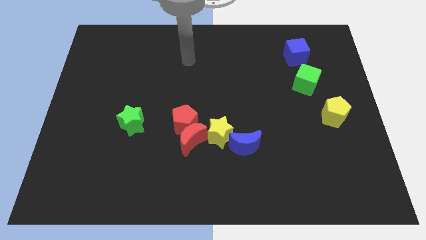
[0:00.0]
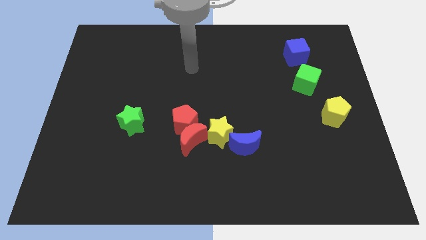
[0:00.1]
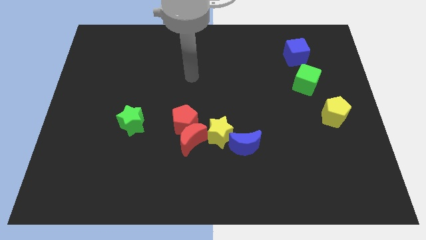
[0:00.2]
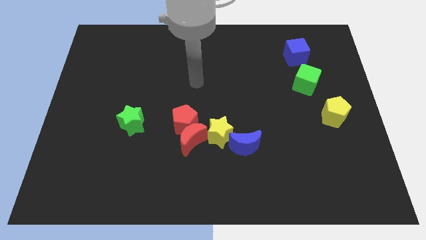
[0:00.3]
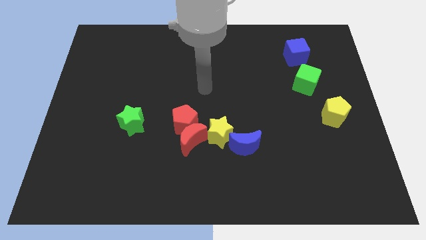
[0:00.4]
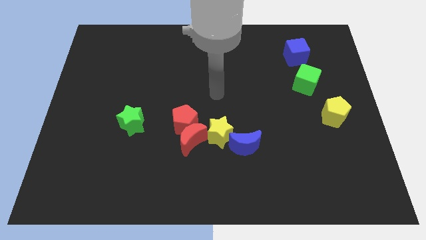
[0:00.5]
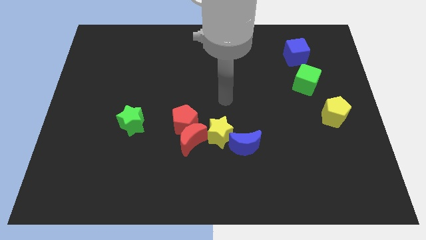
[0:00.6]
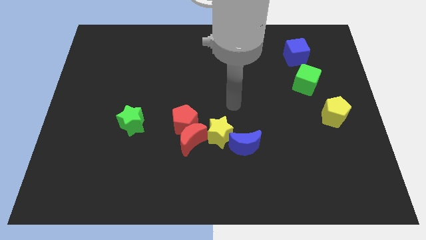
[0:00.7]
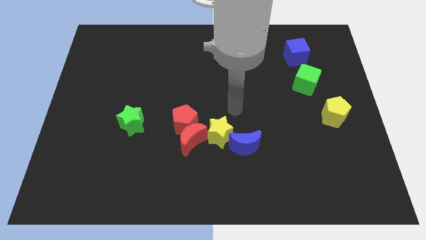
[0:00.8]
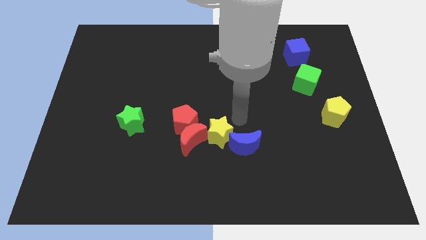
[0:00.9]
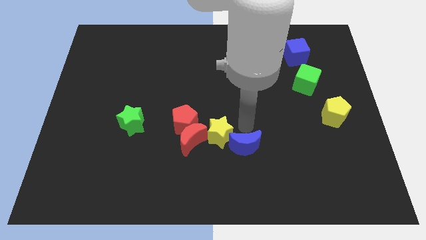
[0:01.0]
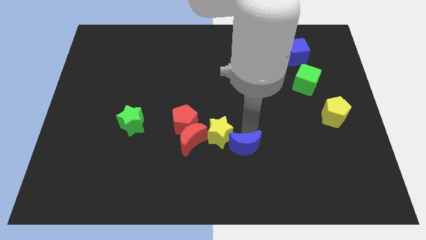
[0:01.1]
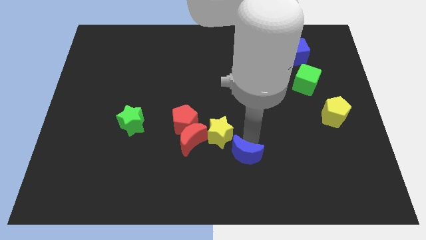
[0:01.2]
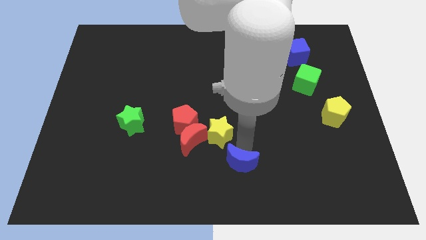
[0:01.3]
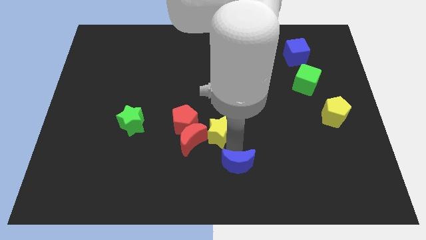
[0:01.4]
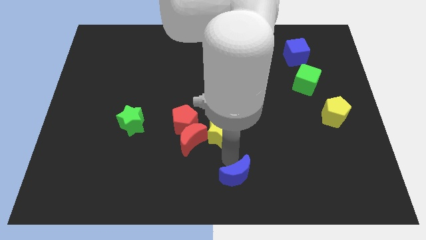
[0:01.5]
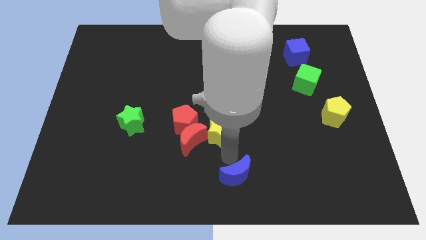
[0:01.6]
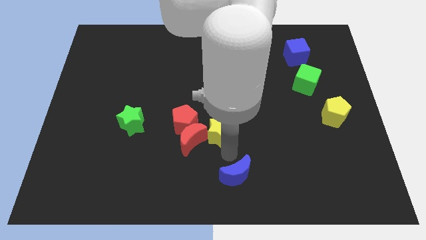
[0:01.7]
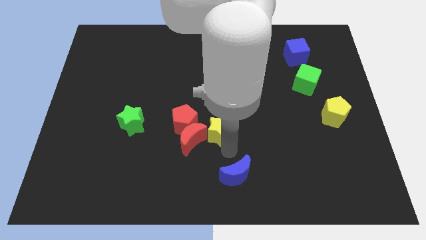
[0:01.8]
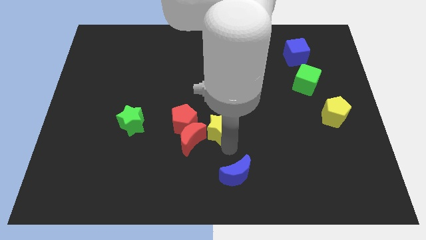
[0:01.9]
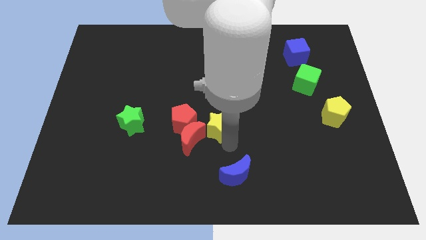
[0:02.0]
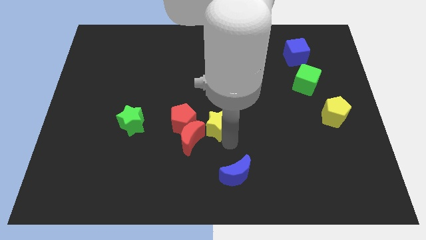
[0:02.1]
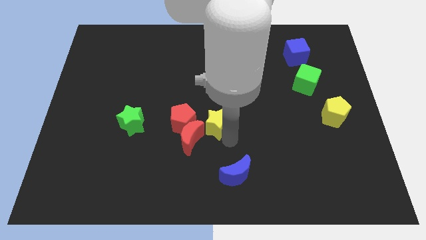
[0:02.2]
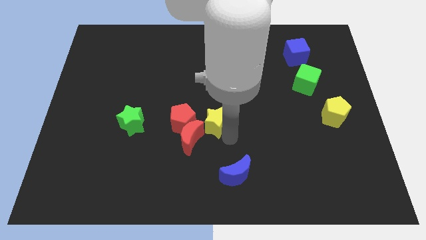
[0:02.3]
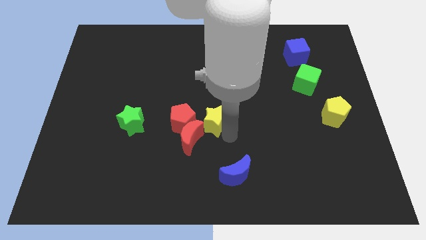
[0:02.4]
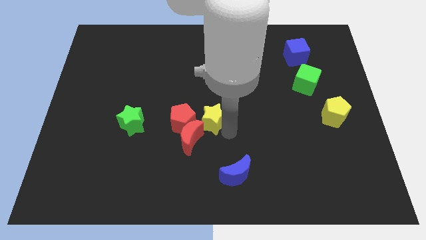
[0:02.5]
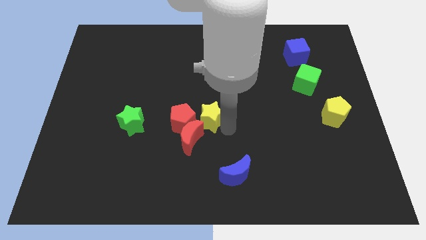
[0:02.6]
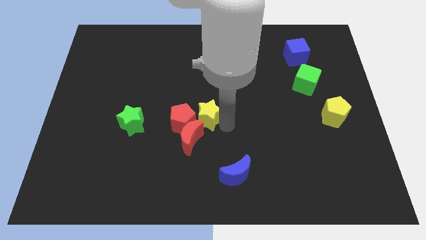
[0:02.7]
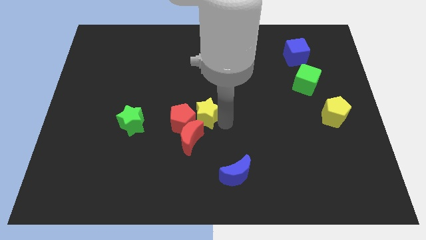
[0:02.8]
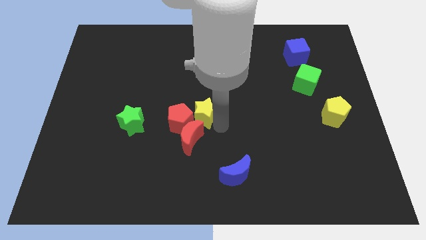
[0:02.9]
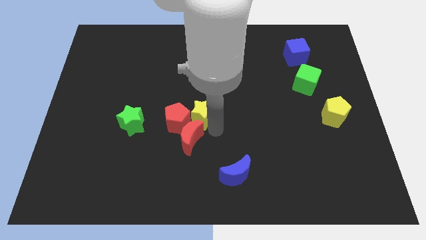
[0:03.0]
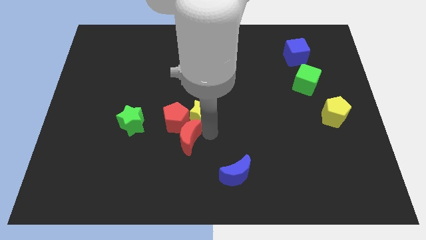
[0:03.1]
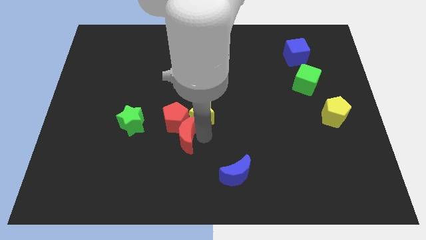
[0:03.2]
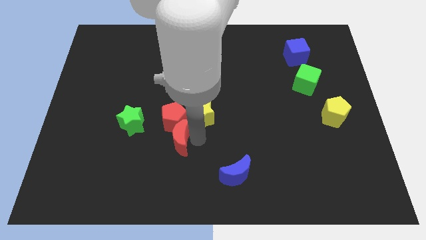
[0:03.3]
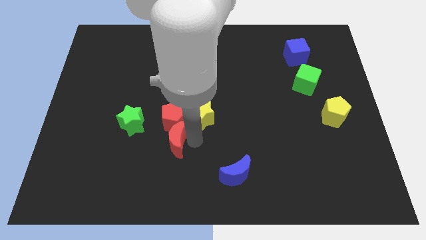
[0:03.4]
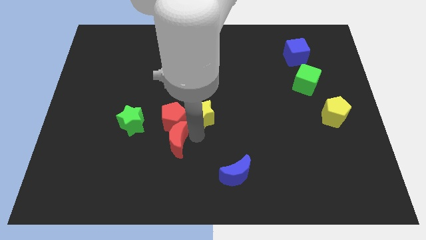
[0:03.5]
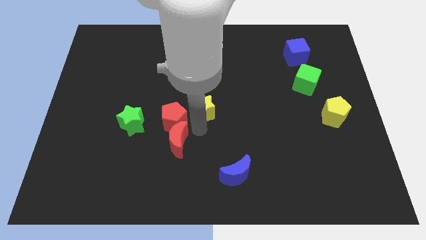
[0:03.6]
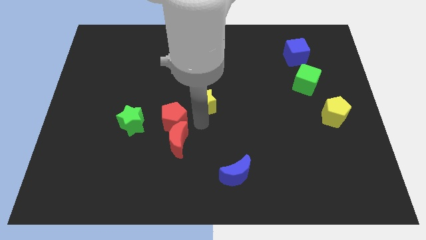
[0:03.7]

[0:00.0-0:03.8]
slightly push the yellow star upwards

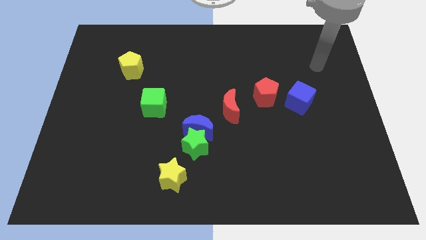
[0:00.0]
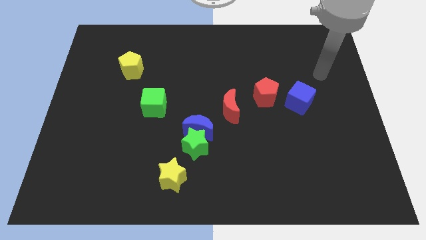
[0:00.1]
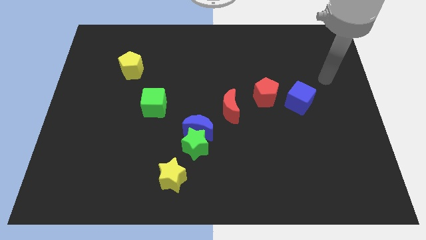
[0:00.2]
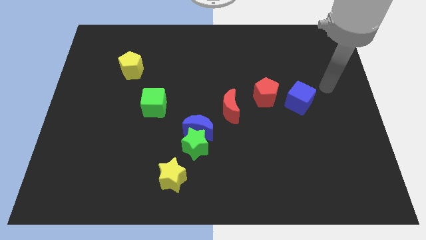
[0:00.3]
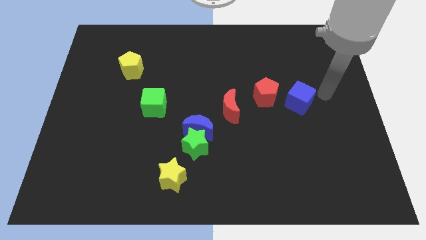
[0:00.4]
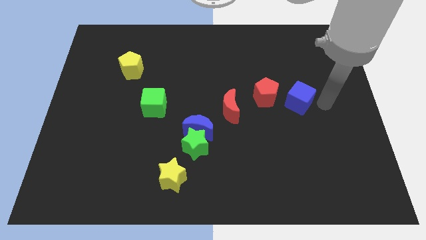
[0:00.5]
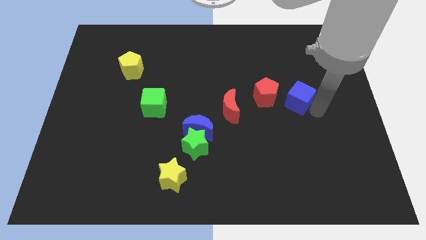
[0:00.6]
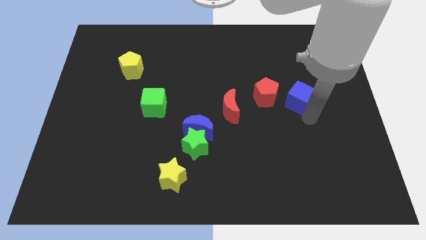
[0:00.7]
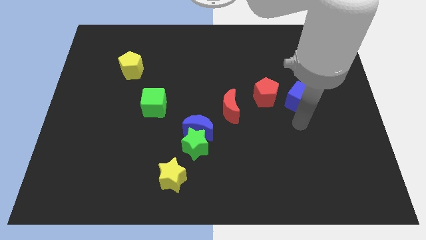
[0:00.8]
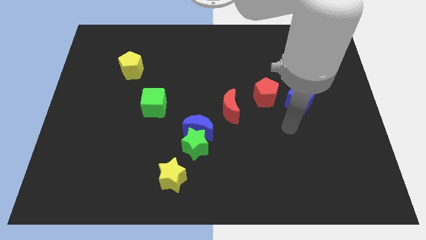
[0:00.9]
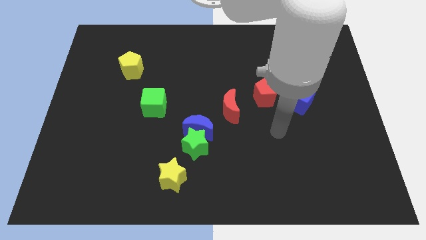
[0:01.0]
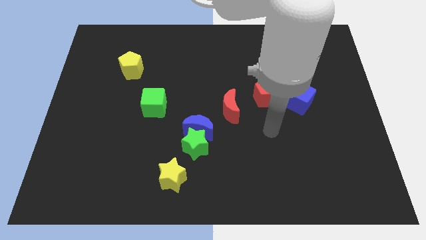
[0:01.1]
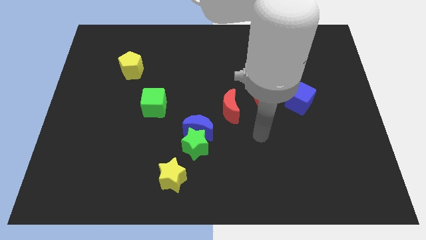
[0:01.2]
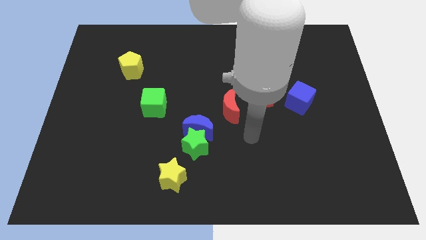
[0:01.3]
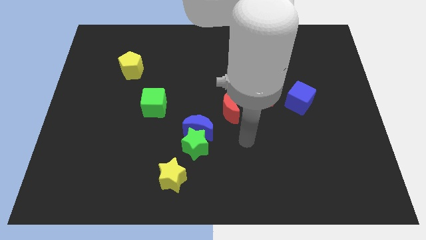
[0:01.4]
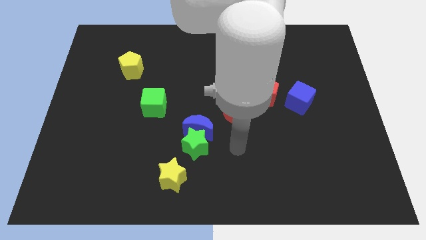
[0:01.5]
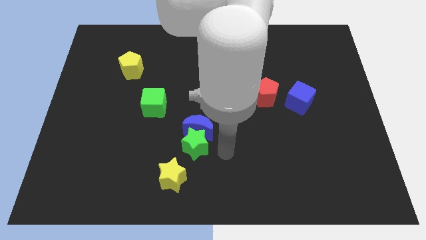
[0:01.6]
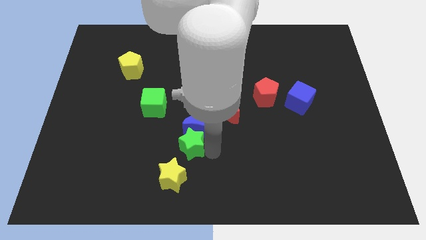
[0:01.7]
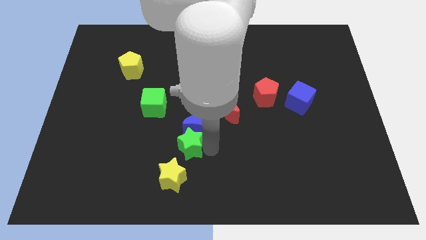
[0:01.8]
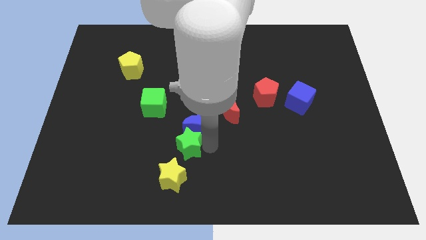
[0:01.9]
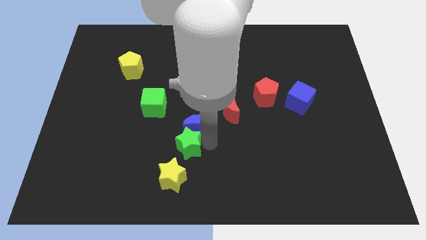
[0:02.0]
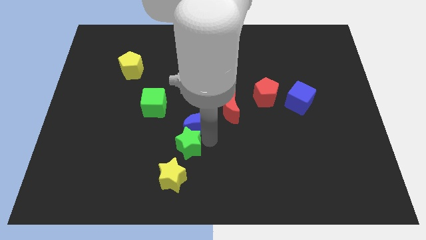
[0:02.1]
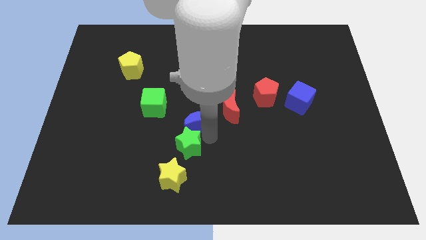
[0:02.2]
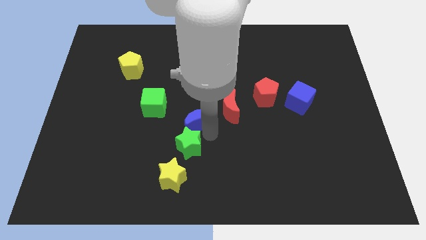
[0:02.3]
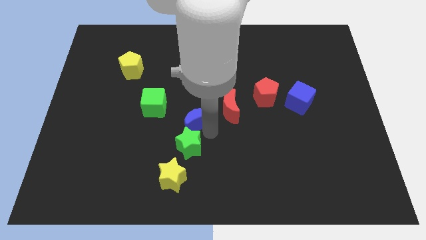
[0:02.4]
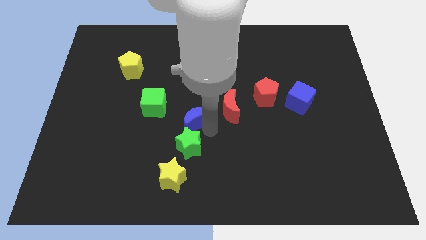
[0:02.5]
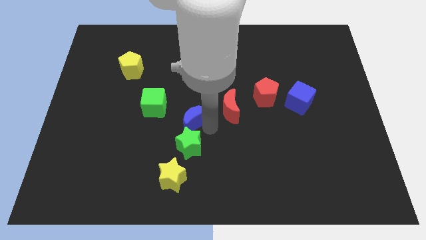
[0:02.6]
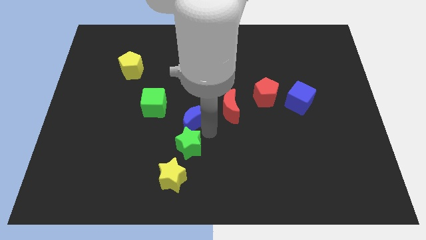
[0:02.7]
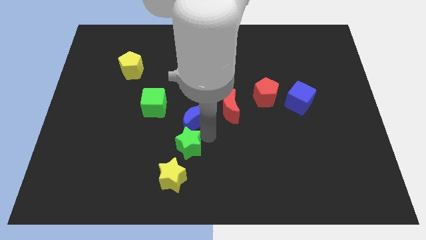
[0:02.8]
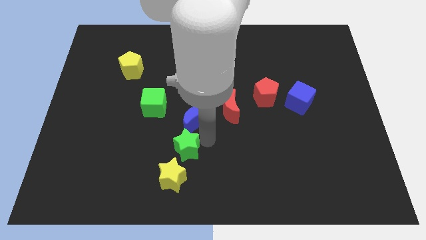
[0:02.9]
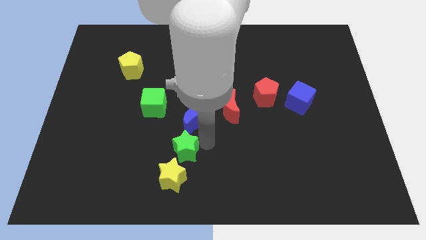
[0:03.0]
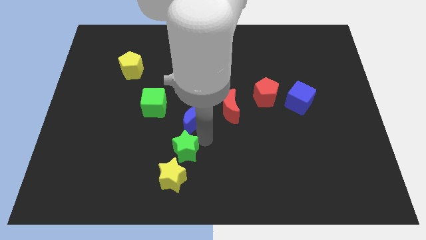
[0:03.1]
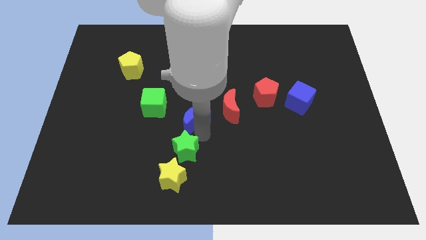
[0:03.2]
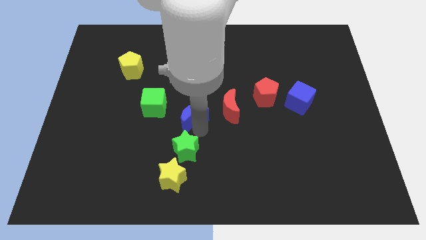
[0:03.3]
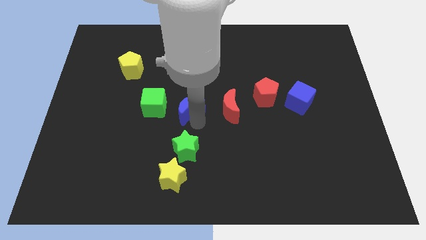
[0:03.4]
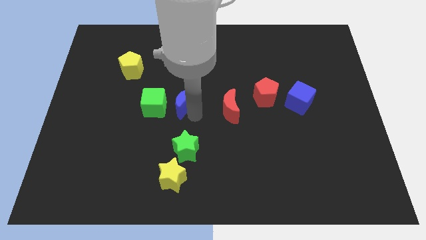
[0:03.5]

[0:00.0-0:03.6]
move the blue moon diagonally upwards and left a bit

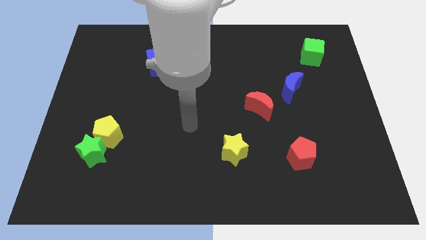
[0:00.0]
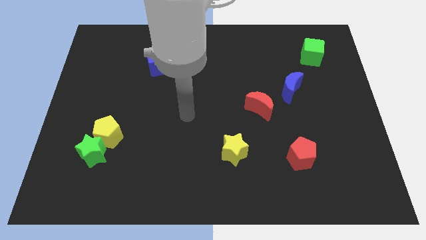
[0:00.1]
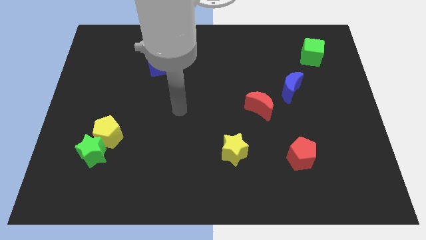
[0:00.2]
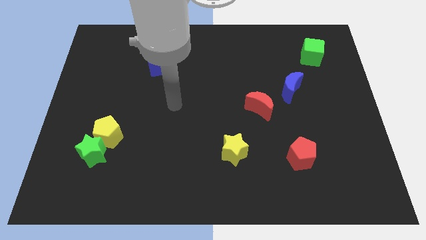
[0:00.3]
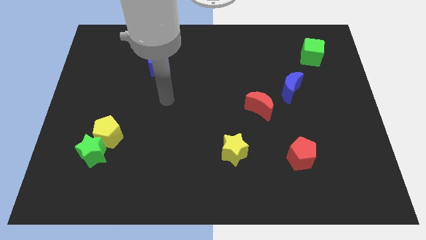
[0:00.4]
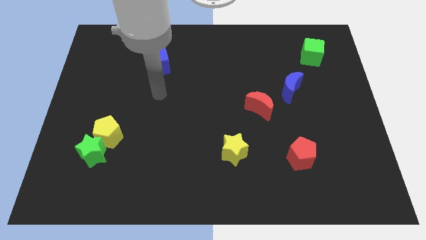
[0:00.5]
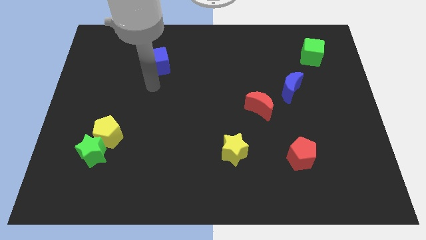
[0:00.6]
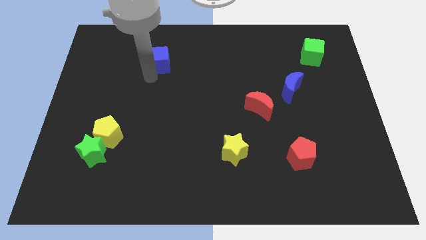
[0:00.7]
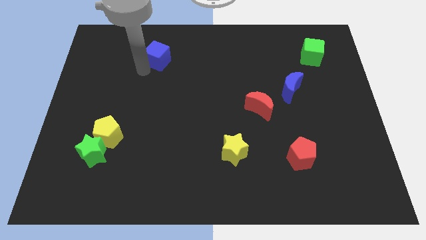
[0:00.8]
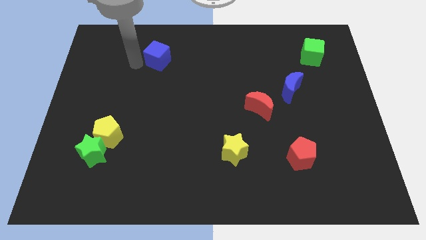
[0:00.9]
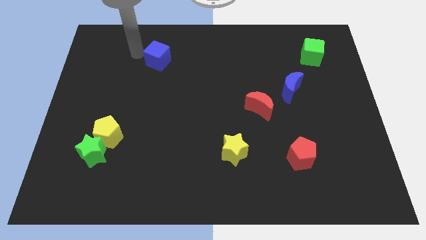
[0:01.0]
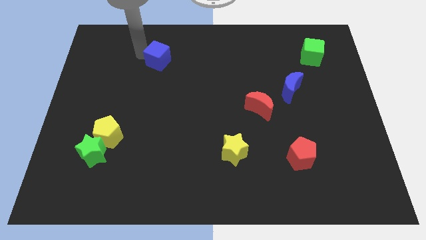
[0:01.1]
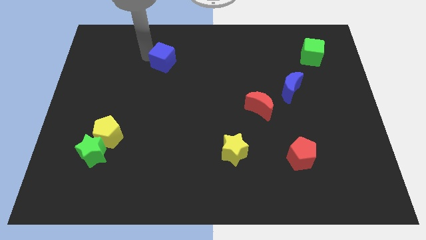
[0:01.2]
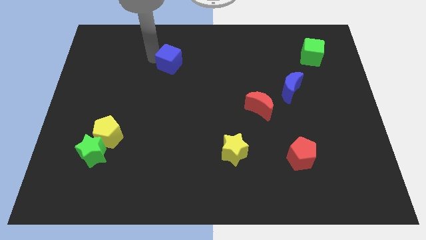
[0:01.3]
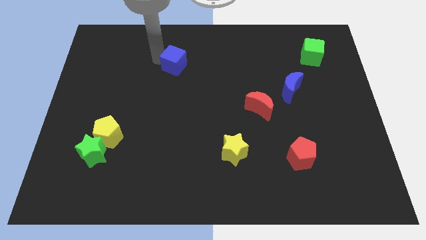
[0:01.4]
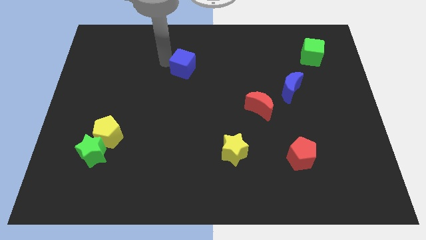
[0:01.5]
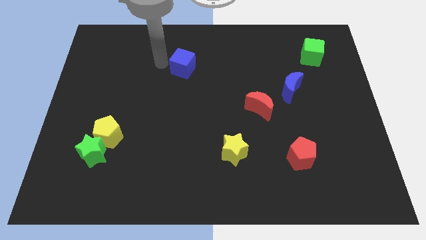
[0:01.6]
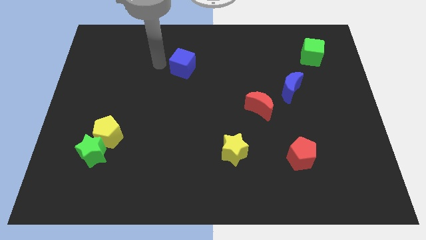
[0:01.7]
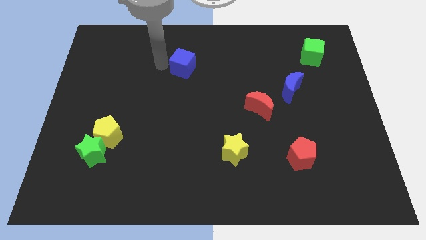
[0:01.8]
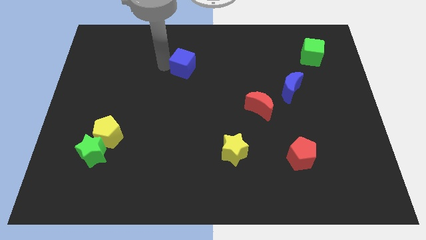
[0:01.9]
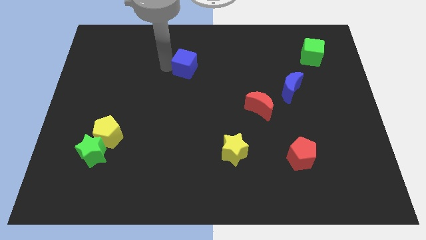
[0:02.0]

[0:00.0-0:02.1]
move the blue cube right a bit
